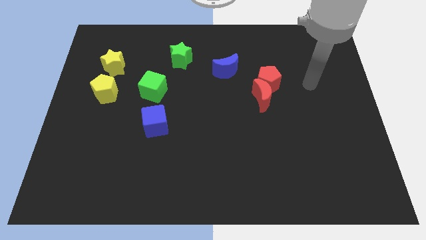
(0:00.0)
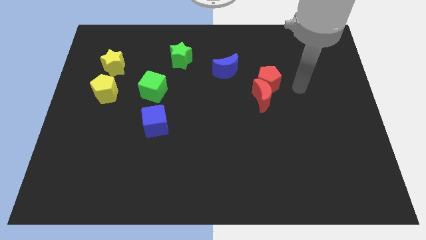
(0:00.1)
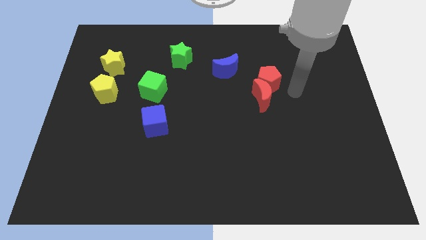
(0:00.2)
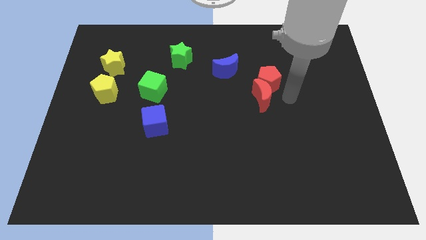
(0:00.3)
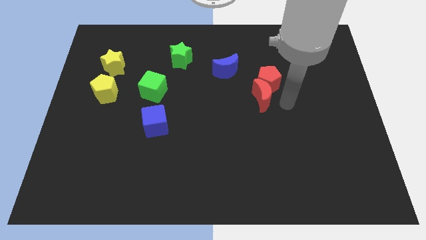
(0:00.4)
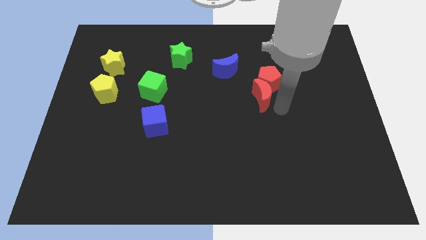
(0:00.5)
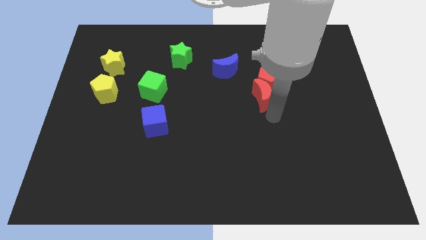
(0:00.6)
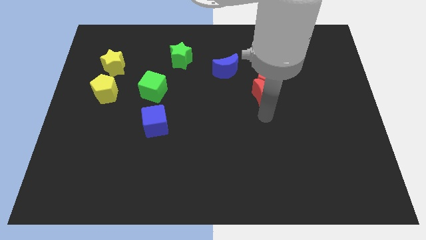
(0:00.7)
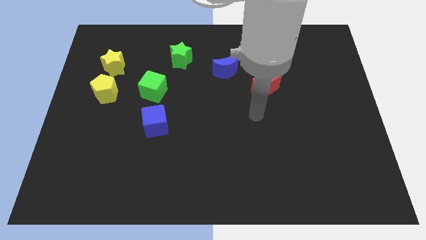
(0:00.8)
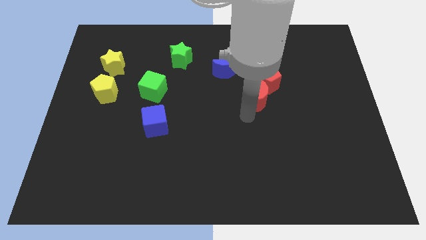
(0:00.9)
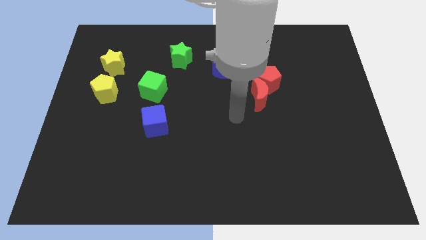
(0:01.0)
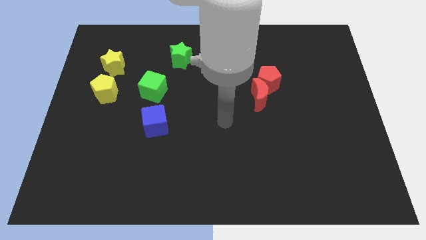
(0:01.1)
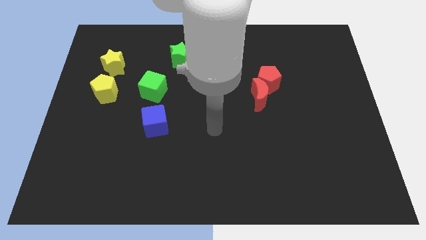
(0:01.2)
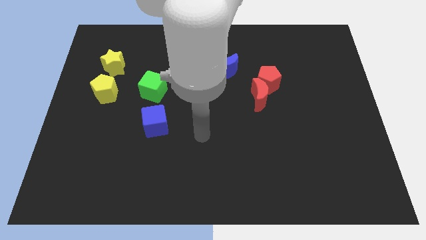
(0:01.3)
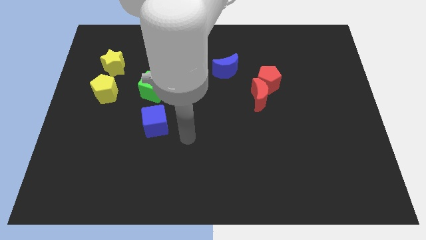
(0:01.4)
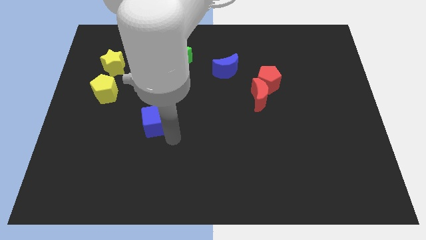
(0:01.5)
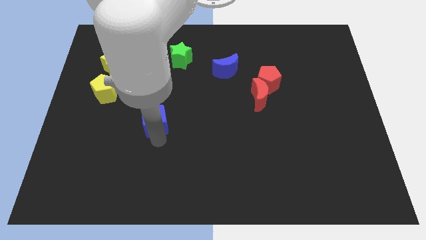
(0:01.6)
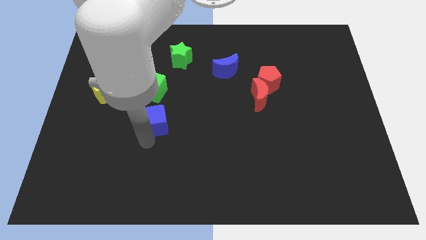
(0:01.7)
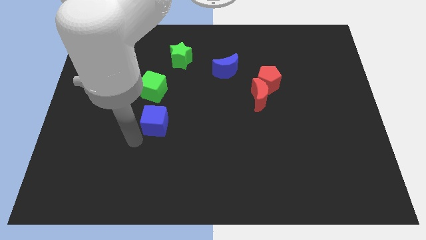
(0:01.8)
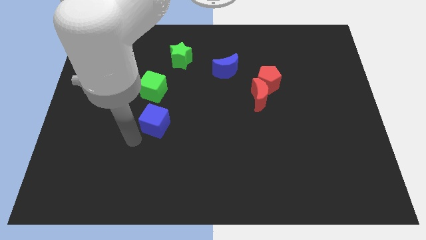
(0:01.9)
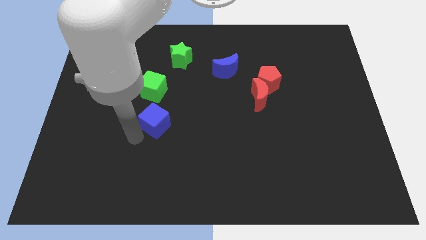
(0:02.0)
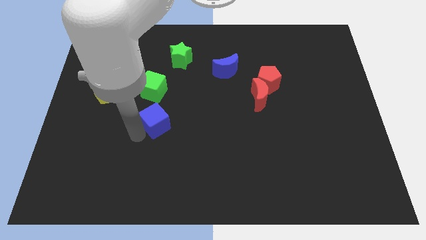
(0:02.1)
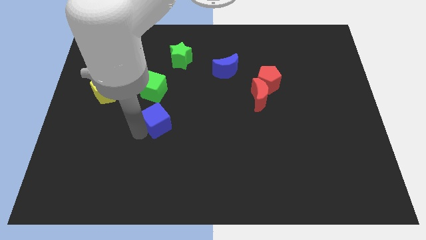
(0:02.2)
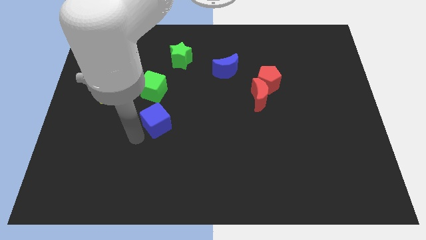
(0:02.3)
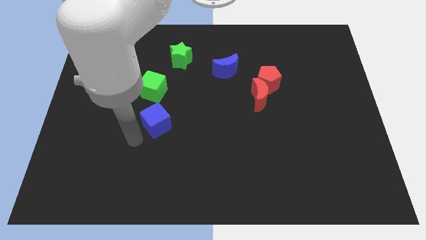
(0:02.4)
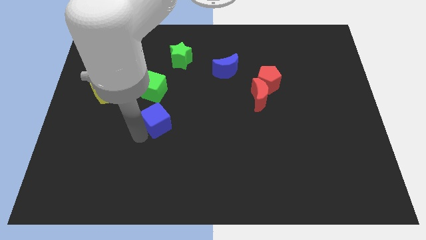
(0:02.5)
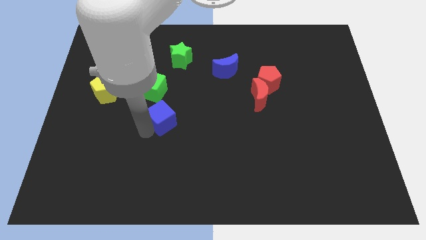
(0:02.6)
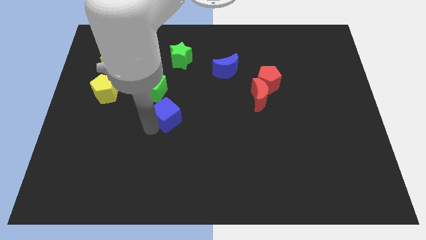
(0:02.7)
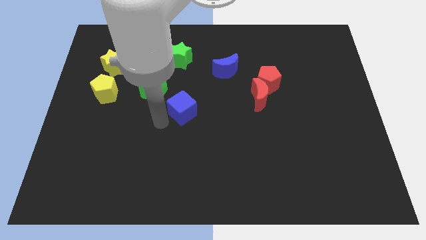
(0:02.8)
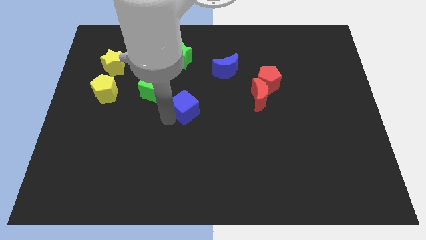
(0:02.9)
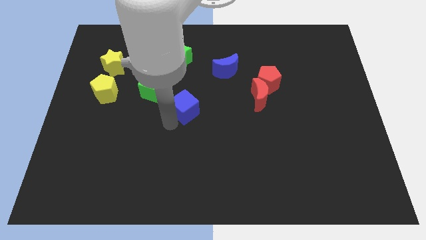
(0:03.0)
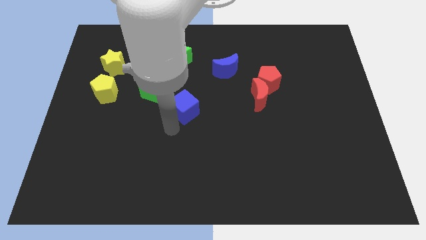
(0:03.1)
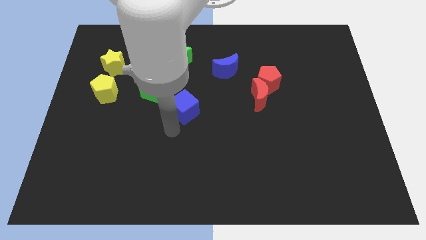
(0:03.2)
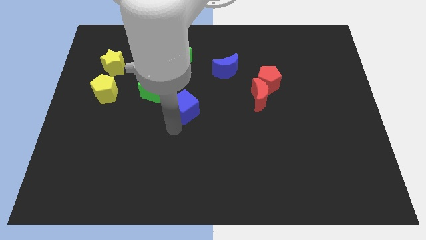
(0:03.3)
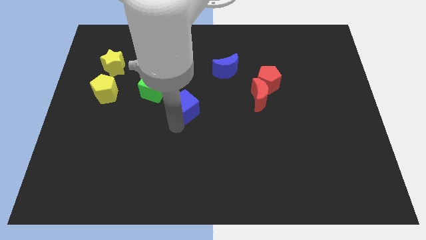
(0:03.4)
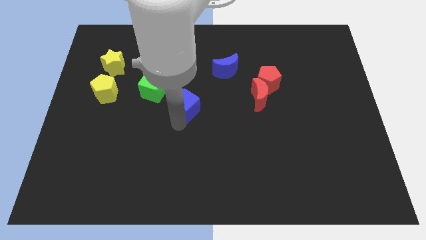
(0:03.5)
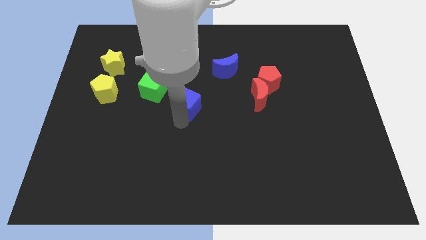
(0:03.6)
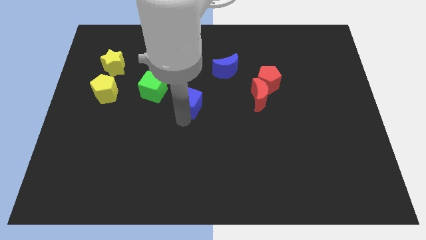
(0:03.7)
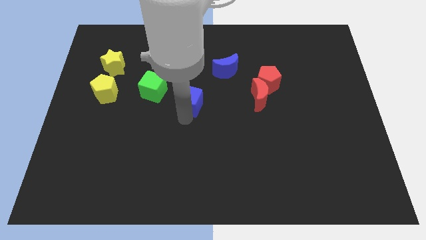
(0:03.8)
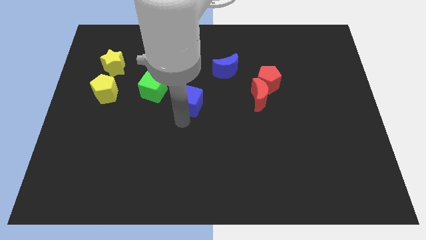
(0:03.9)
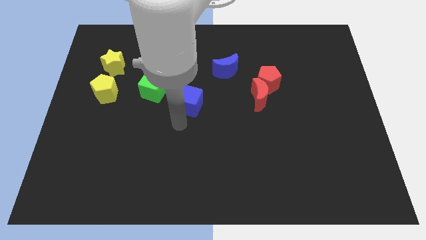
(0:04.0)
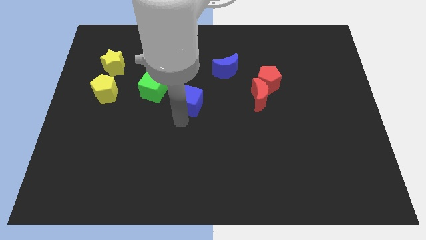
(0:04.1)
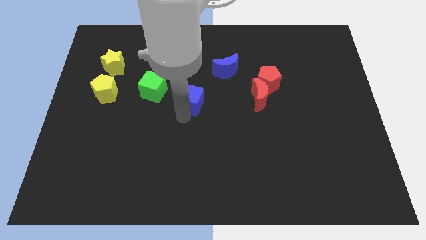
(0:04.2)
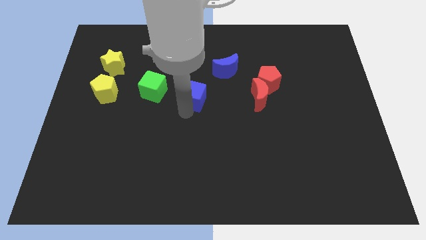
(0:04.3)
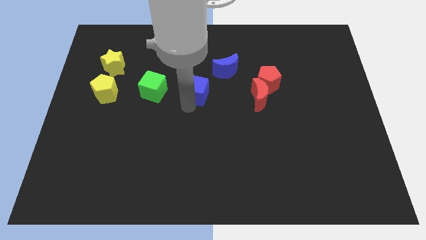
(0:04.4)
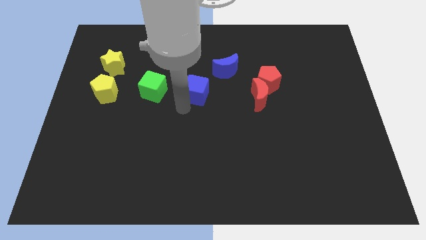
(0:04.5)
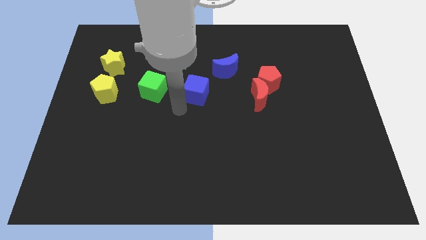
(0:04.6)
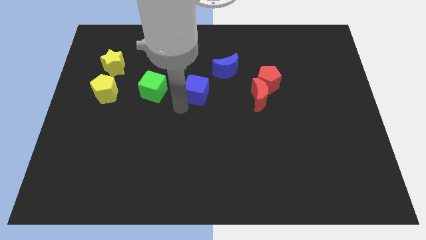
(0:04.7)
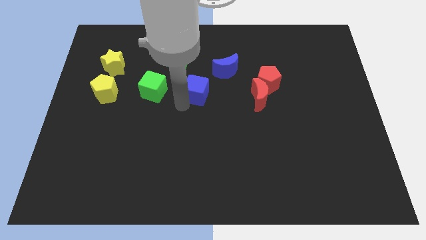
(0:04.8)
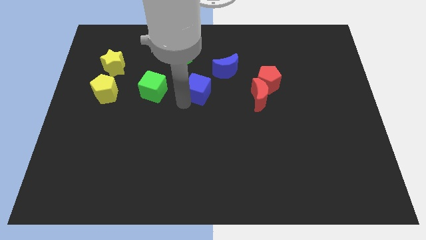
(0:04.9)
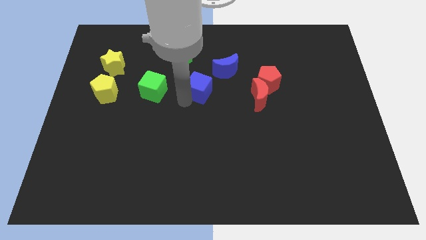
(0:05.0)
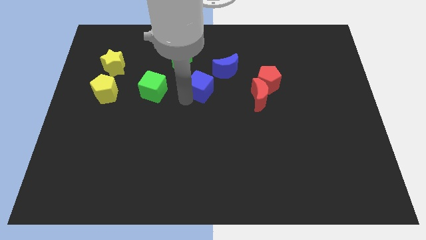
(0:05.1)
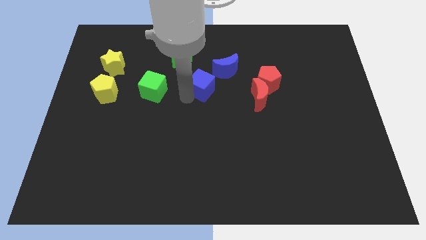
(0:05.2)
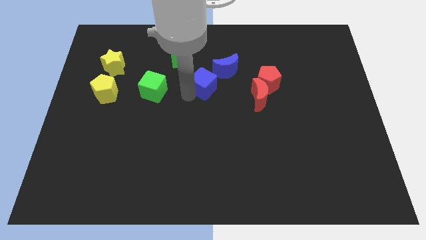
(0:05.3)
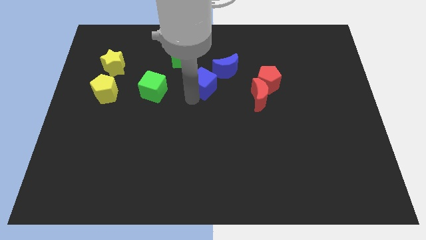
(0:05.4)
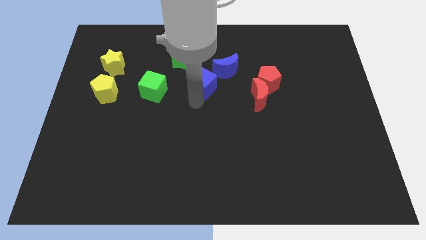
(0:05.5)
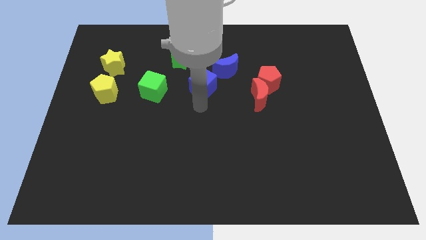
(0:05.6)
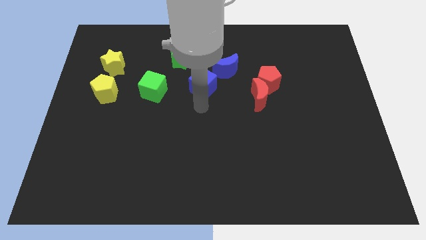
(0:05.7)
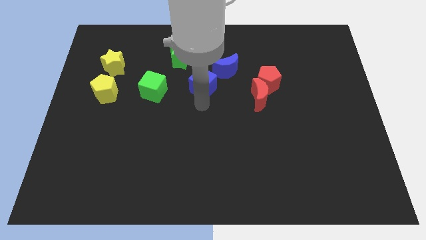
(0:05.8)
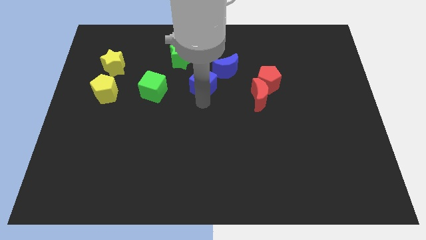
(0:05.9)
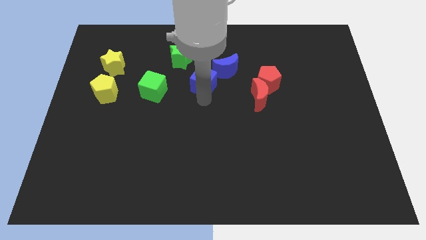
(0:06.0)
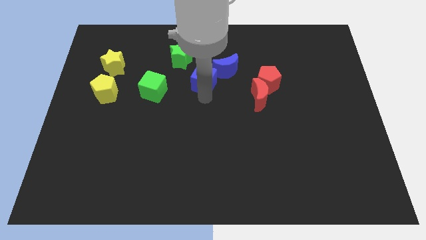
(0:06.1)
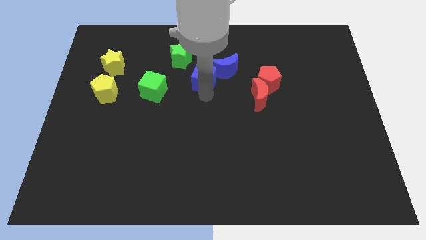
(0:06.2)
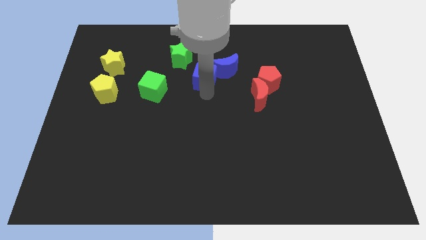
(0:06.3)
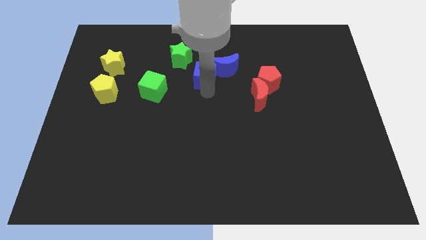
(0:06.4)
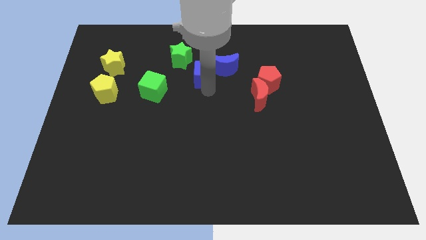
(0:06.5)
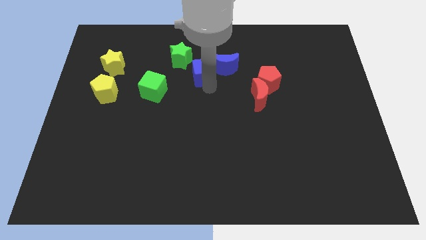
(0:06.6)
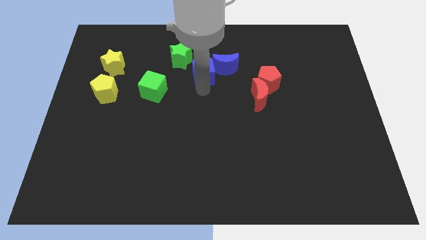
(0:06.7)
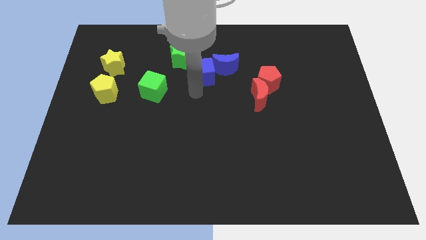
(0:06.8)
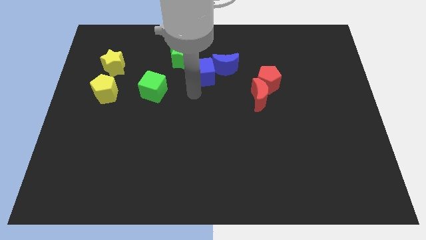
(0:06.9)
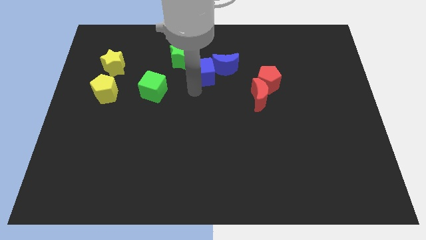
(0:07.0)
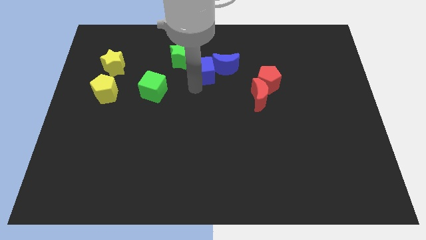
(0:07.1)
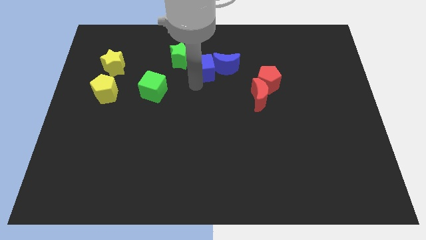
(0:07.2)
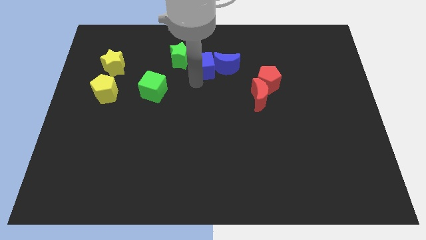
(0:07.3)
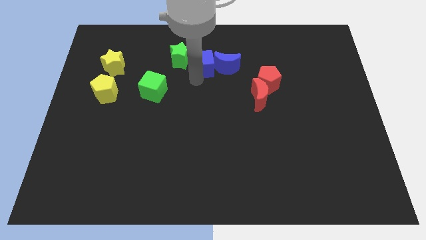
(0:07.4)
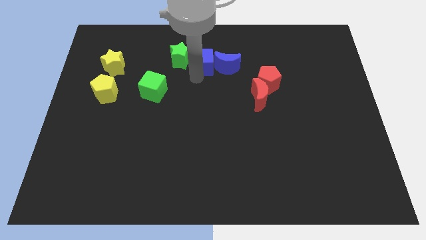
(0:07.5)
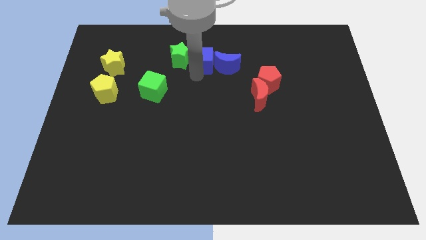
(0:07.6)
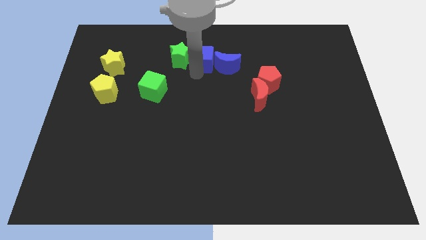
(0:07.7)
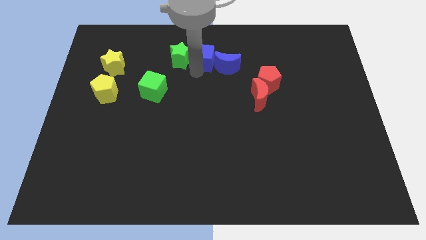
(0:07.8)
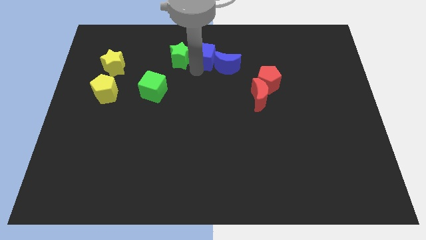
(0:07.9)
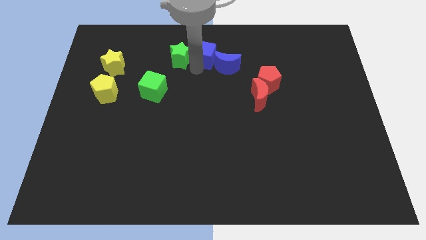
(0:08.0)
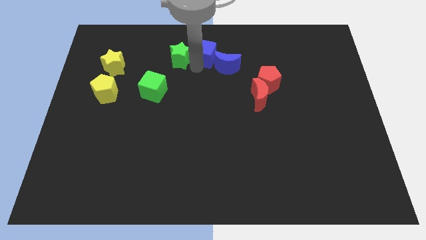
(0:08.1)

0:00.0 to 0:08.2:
slide the blue cube to the towards your base
